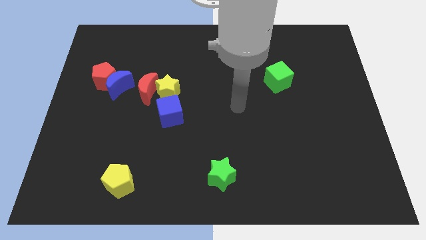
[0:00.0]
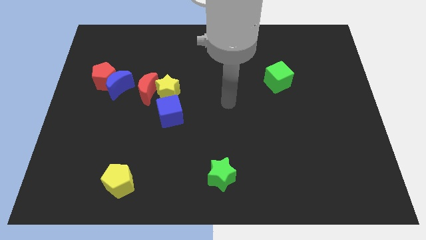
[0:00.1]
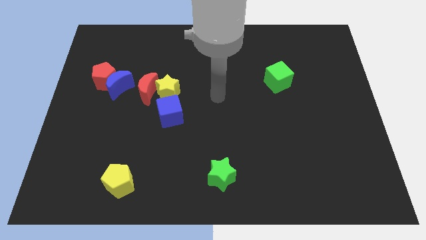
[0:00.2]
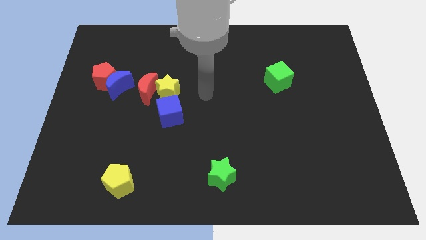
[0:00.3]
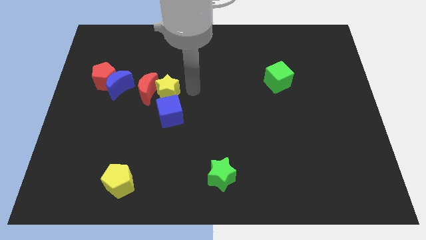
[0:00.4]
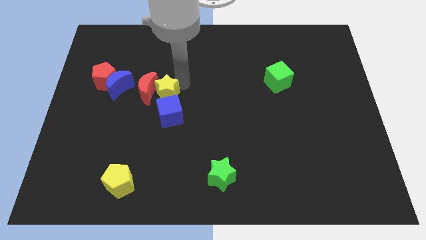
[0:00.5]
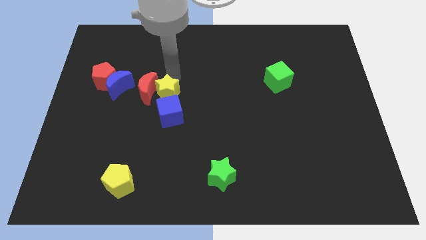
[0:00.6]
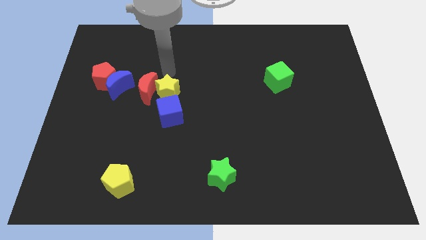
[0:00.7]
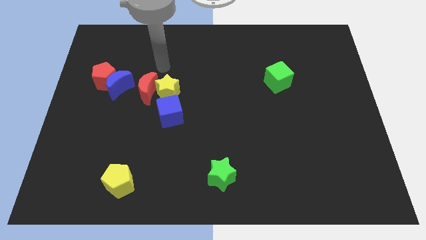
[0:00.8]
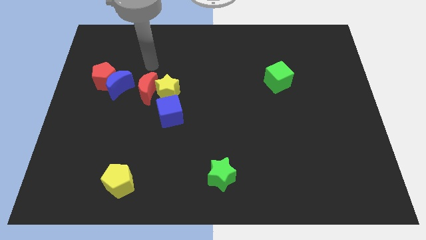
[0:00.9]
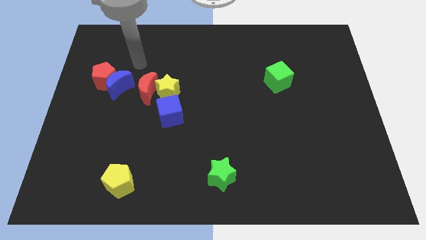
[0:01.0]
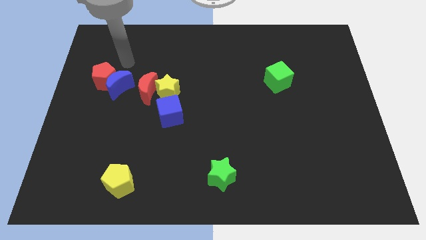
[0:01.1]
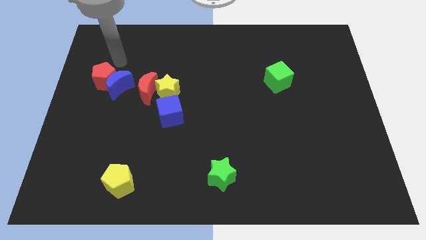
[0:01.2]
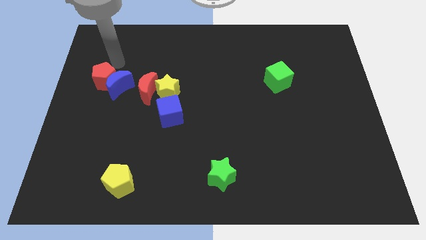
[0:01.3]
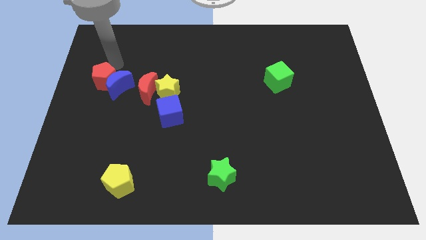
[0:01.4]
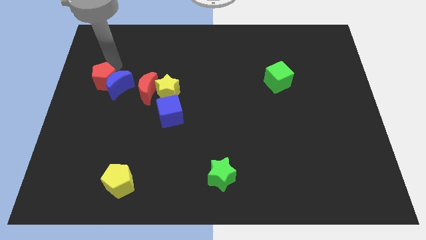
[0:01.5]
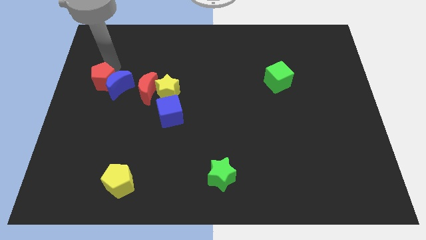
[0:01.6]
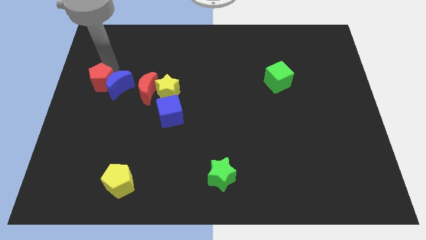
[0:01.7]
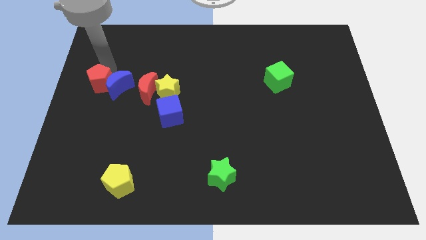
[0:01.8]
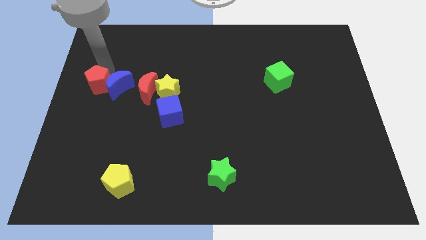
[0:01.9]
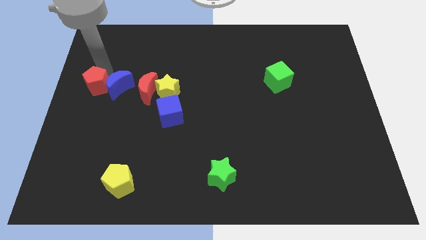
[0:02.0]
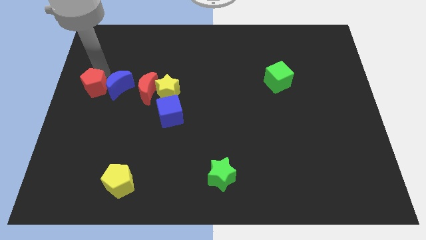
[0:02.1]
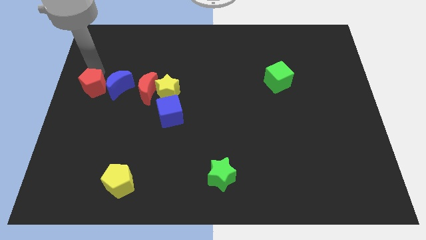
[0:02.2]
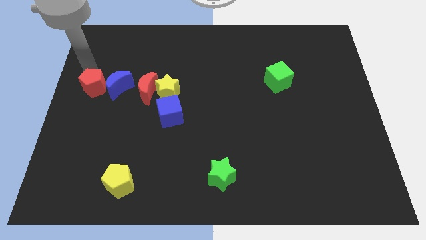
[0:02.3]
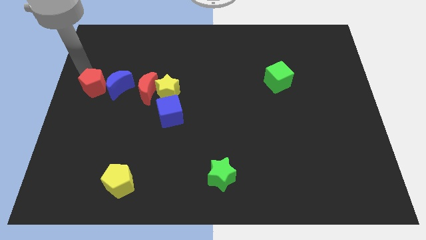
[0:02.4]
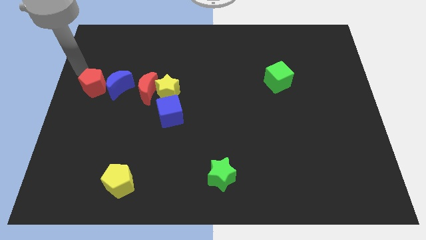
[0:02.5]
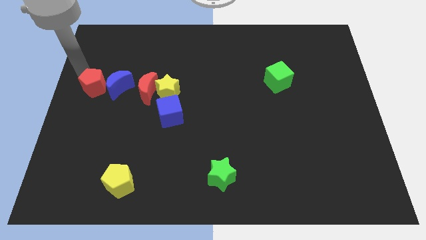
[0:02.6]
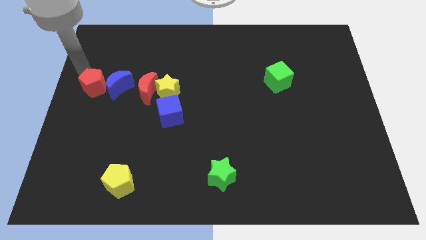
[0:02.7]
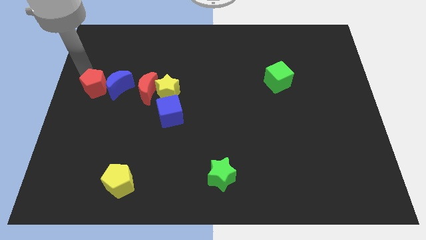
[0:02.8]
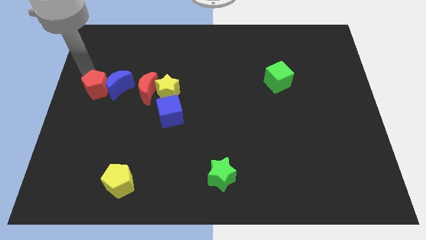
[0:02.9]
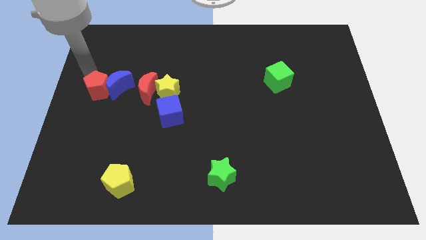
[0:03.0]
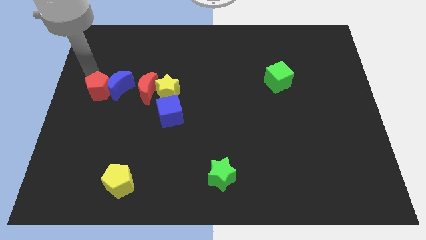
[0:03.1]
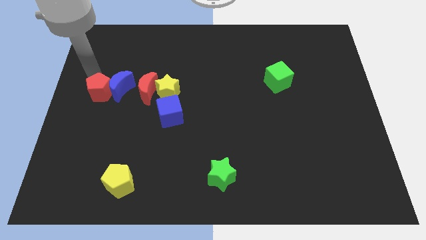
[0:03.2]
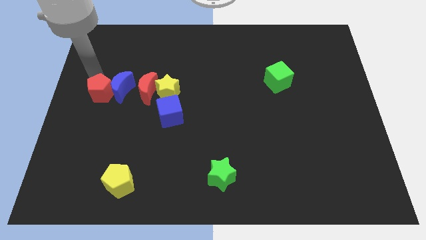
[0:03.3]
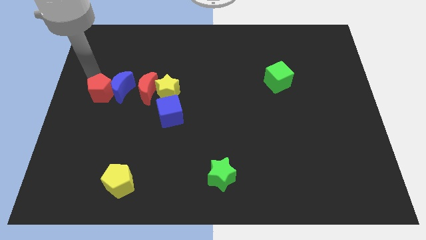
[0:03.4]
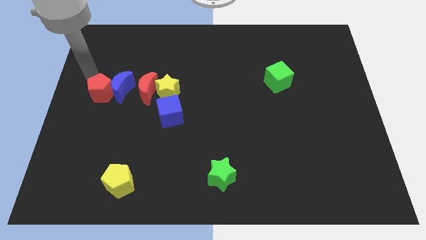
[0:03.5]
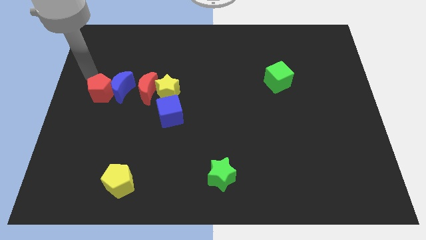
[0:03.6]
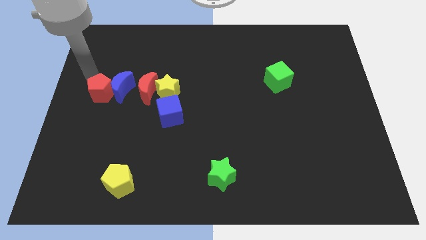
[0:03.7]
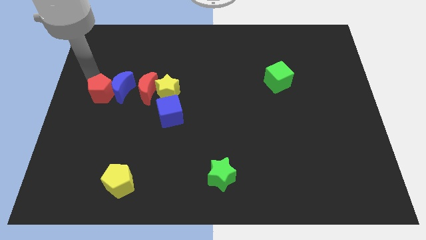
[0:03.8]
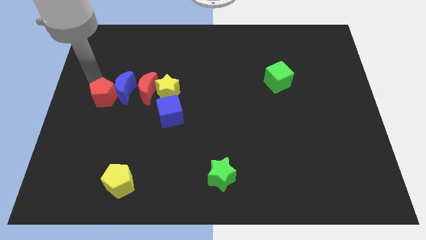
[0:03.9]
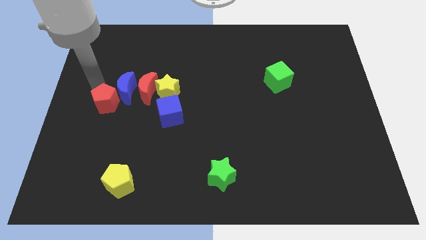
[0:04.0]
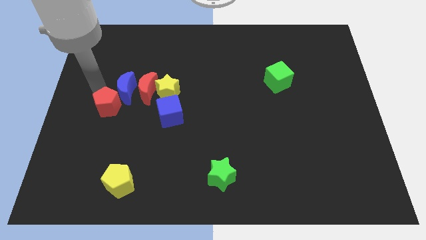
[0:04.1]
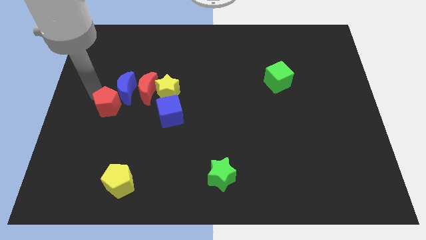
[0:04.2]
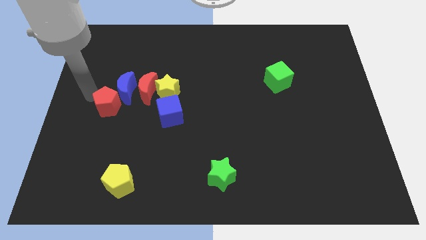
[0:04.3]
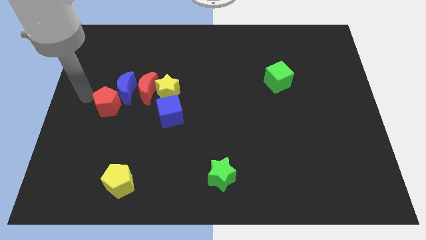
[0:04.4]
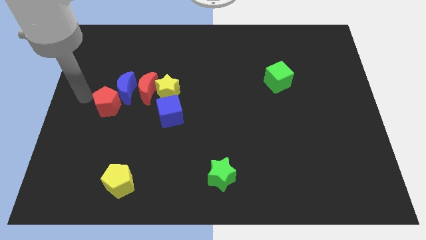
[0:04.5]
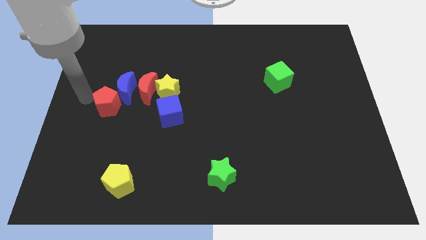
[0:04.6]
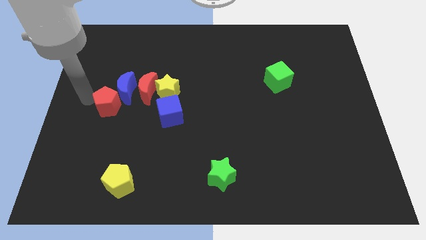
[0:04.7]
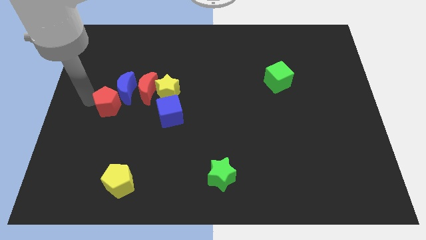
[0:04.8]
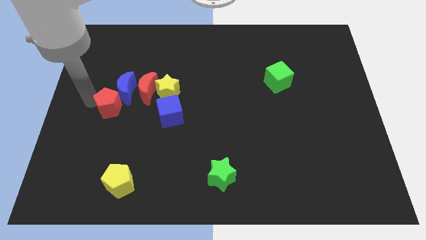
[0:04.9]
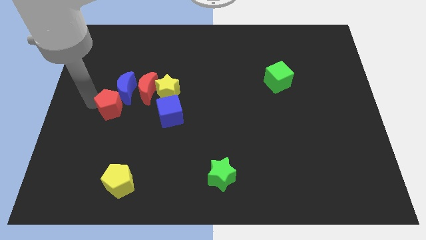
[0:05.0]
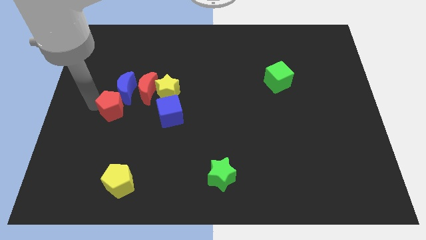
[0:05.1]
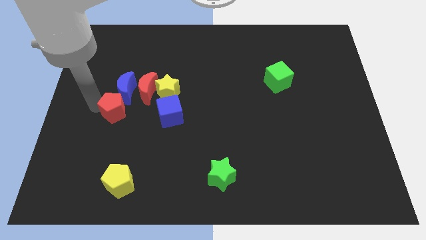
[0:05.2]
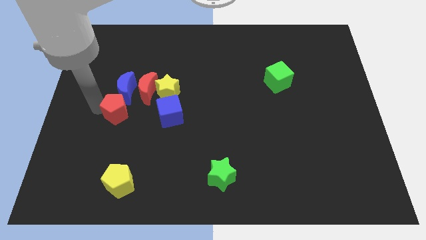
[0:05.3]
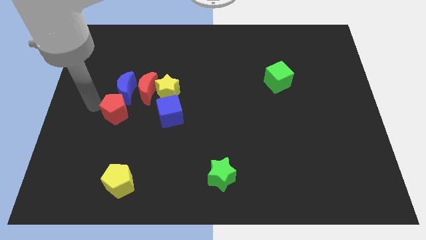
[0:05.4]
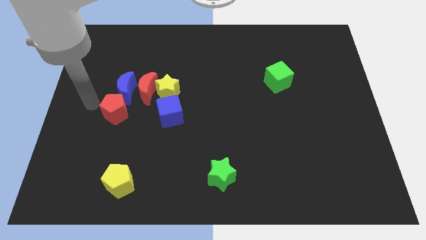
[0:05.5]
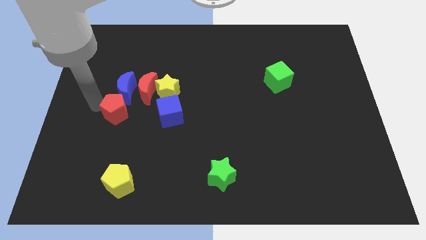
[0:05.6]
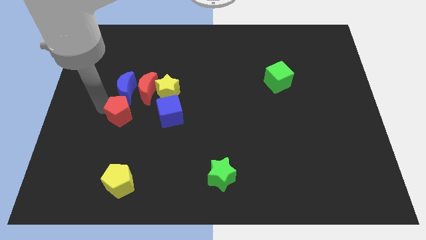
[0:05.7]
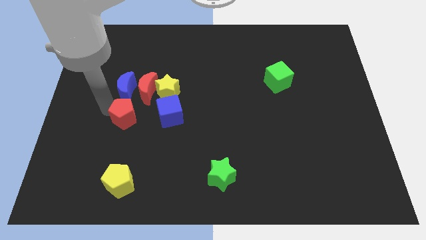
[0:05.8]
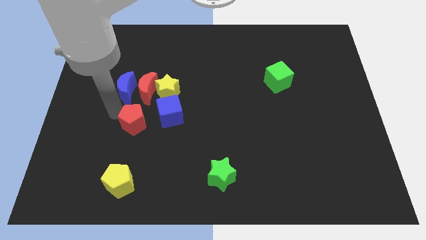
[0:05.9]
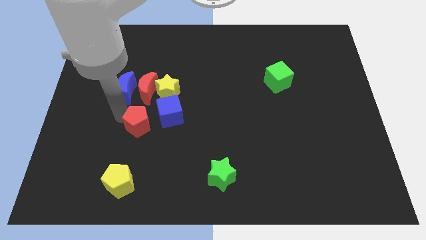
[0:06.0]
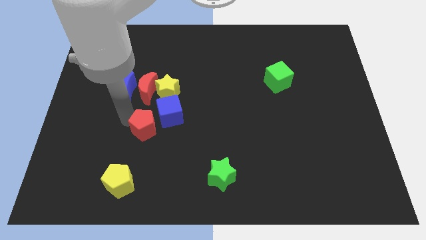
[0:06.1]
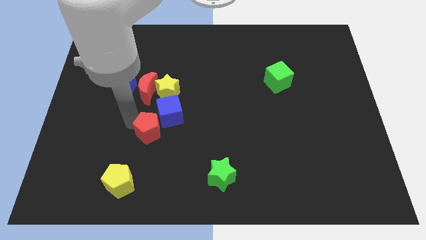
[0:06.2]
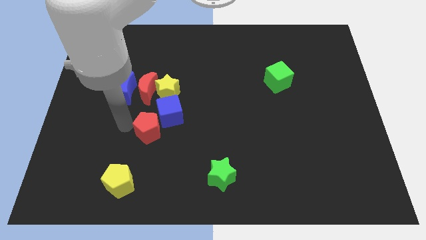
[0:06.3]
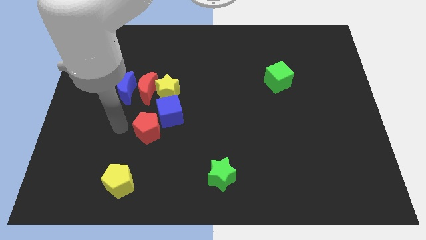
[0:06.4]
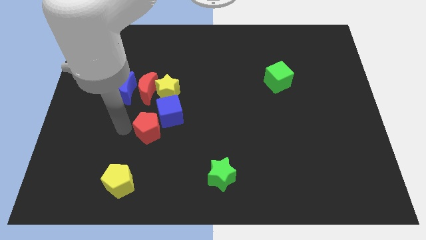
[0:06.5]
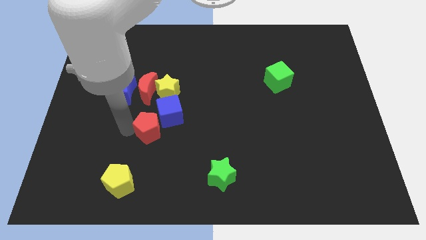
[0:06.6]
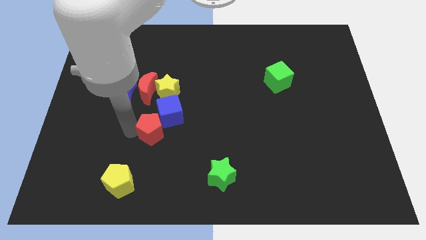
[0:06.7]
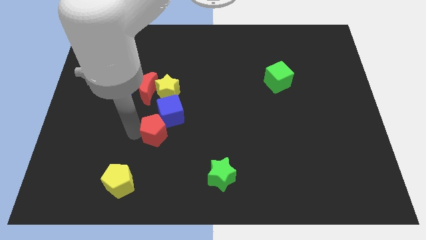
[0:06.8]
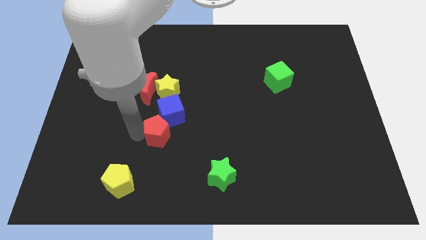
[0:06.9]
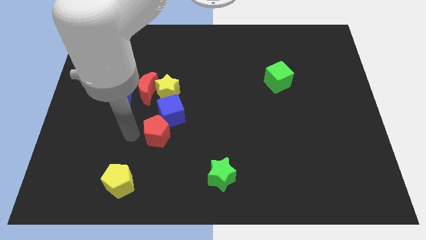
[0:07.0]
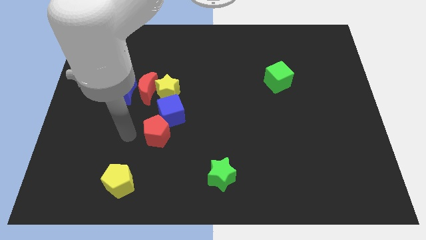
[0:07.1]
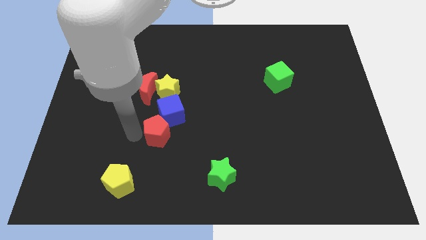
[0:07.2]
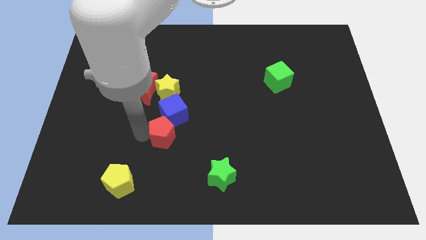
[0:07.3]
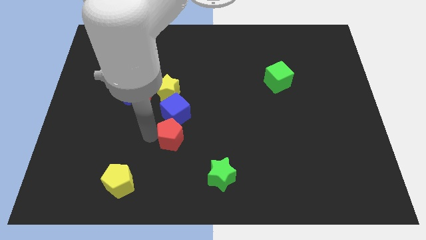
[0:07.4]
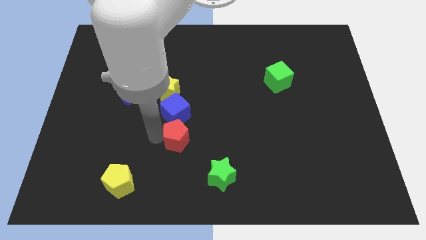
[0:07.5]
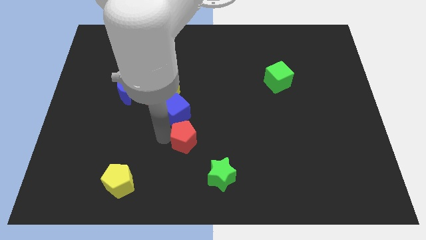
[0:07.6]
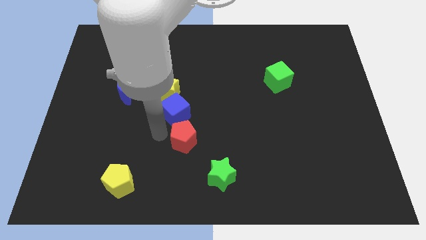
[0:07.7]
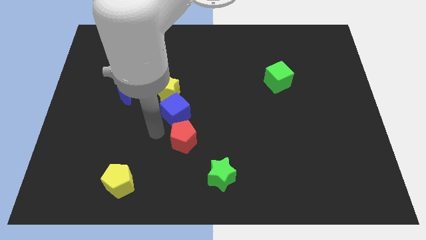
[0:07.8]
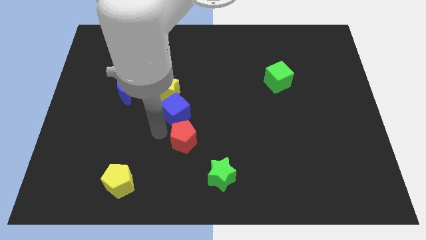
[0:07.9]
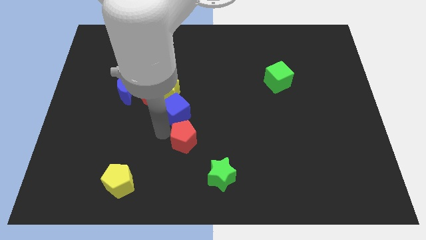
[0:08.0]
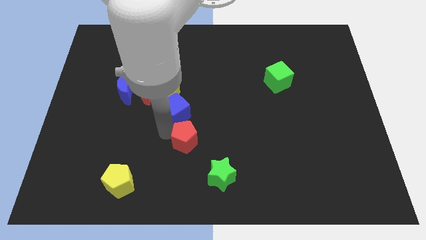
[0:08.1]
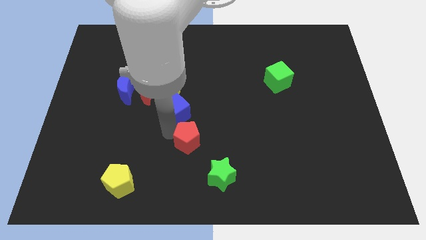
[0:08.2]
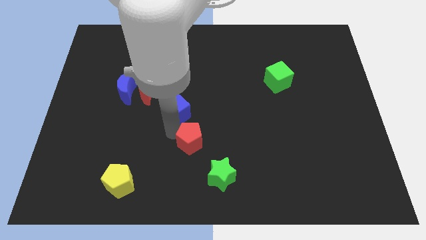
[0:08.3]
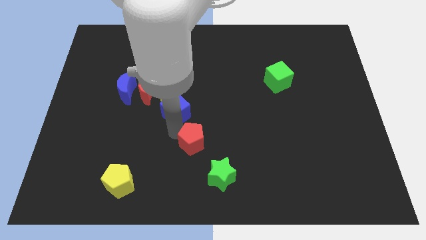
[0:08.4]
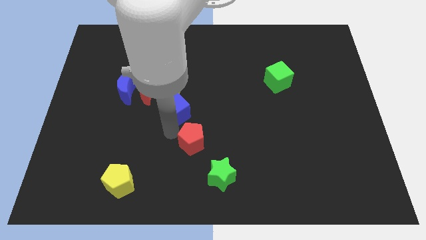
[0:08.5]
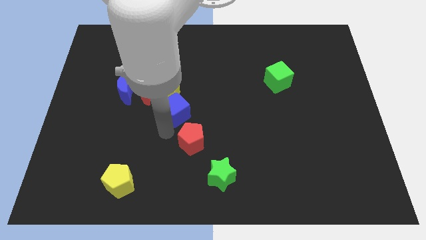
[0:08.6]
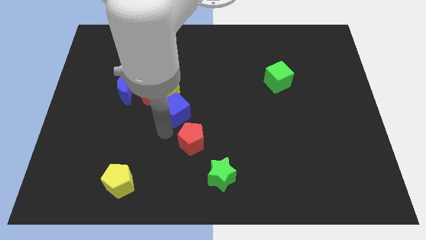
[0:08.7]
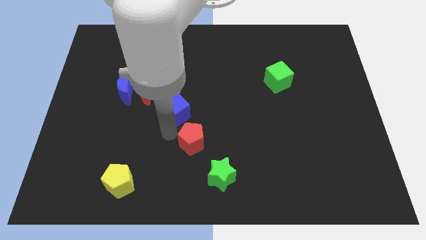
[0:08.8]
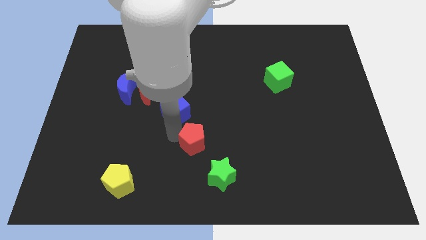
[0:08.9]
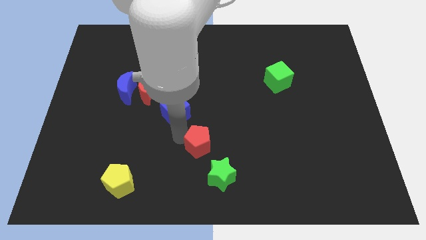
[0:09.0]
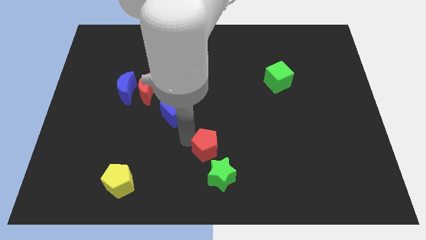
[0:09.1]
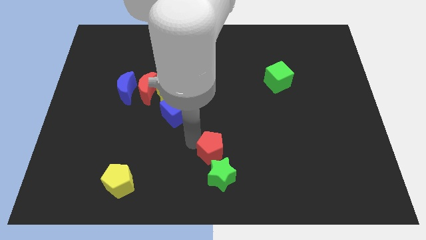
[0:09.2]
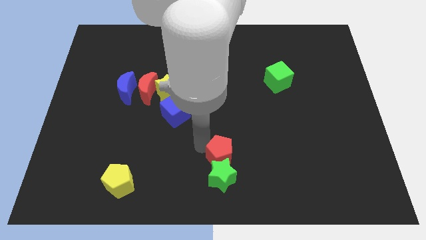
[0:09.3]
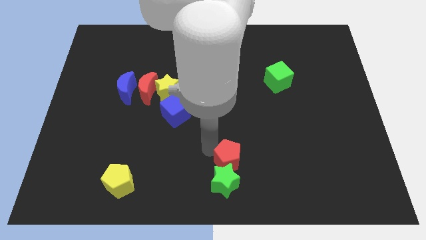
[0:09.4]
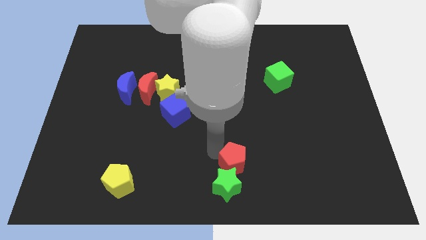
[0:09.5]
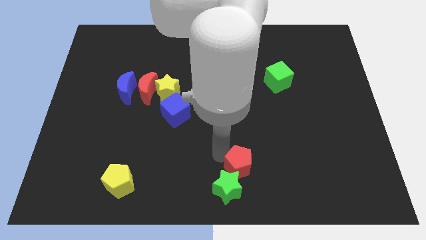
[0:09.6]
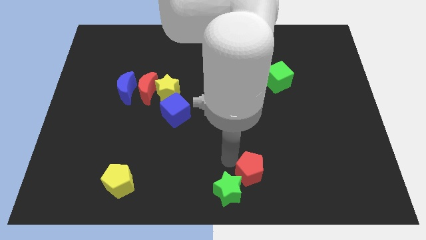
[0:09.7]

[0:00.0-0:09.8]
put the red pentagon to the right of the green star
